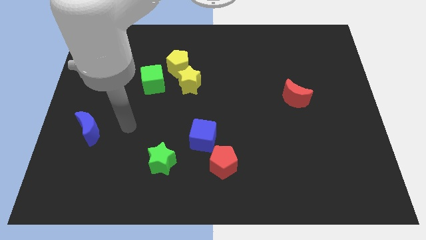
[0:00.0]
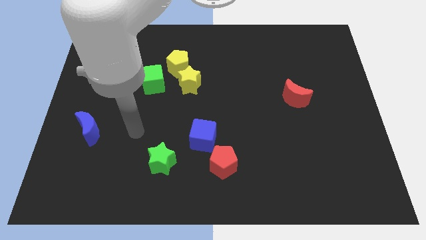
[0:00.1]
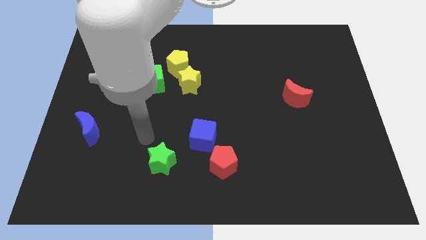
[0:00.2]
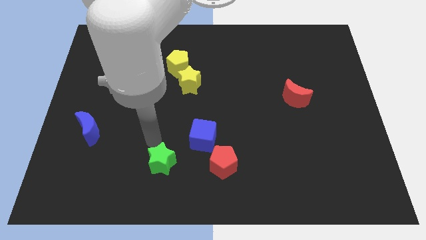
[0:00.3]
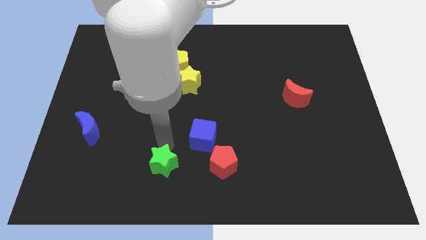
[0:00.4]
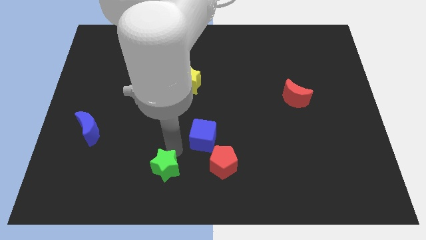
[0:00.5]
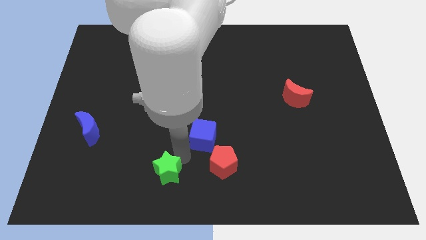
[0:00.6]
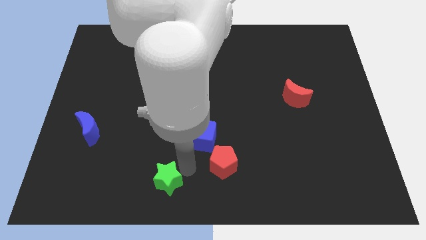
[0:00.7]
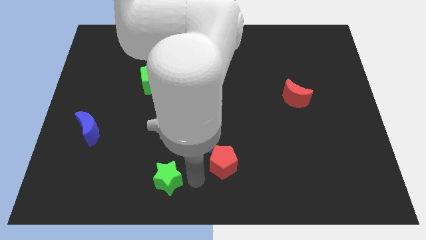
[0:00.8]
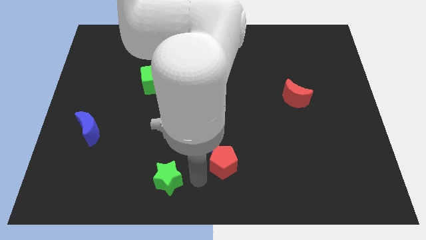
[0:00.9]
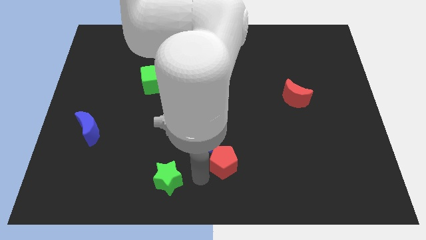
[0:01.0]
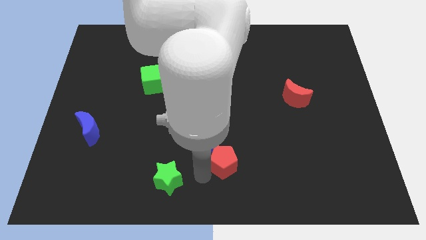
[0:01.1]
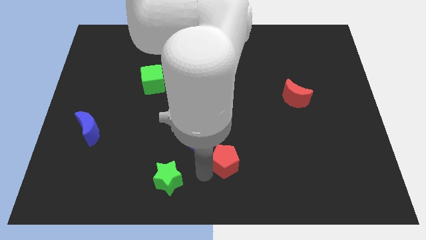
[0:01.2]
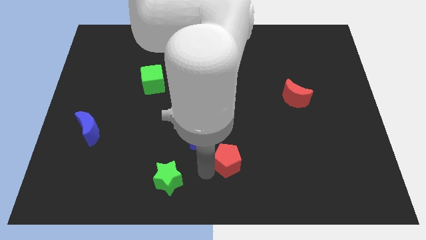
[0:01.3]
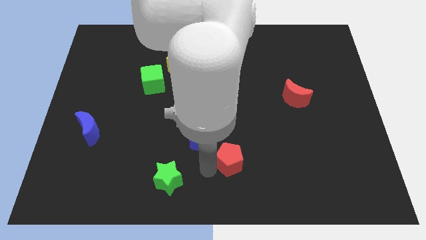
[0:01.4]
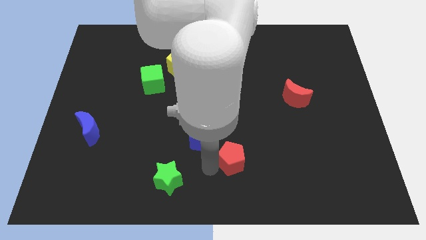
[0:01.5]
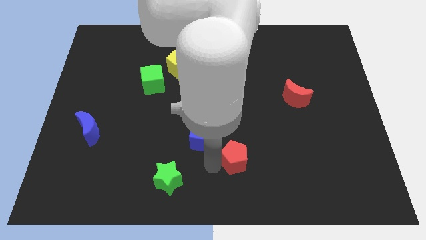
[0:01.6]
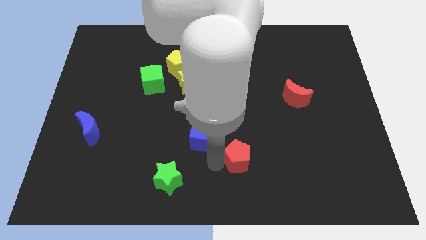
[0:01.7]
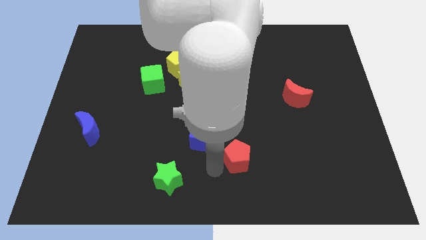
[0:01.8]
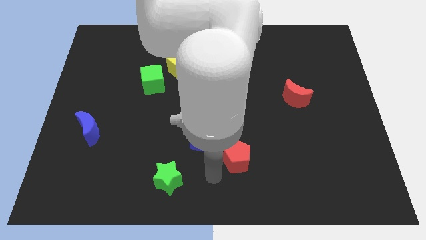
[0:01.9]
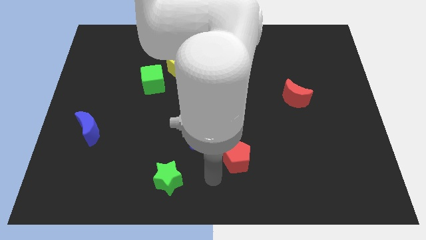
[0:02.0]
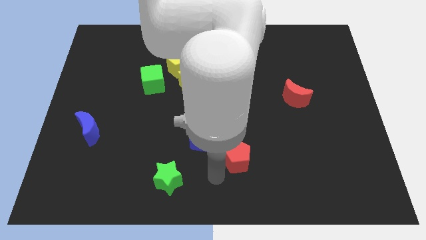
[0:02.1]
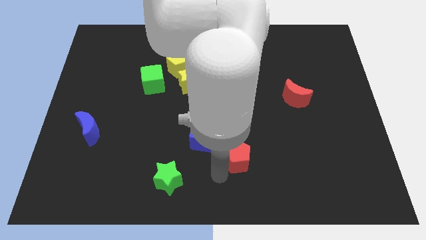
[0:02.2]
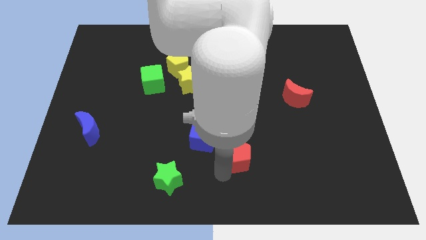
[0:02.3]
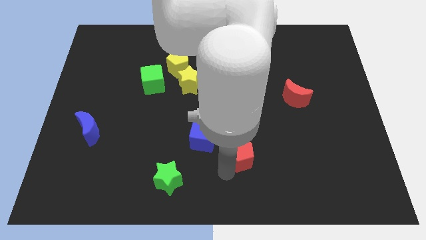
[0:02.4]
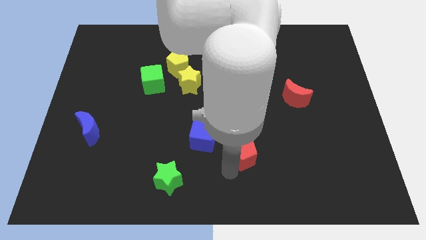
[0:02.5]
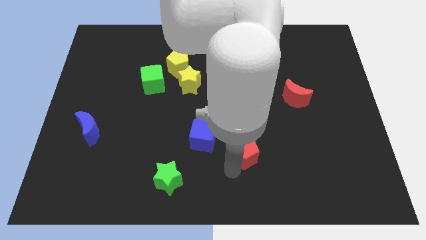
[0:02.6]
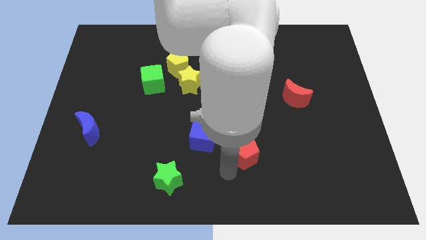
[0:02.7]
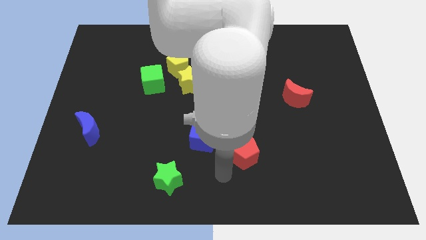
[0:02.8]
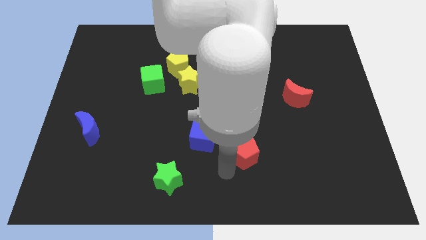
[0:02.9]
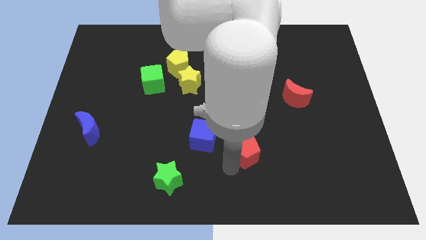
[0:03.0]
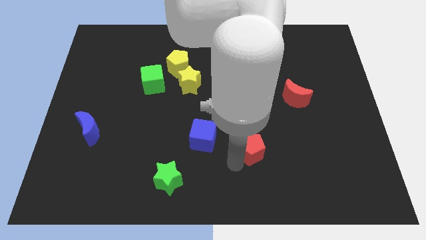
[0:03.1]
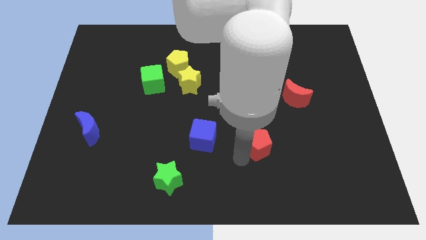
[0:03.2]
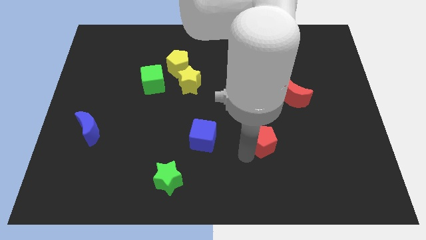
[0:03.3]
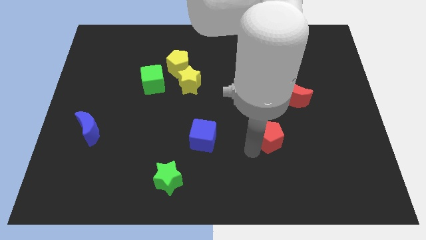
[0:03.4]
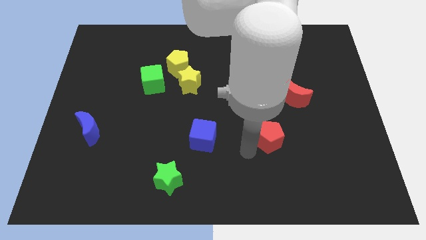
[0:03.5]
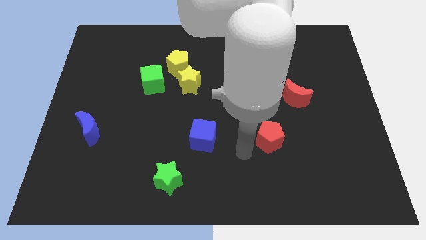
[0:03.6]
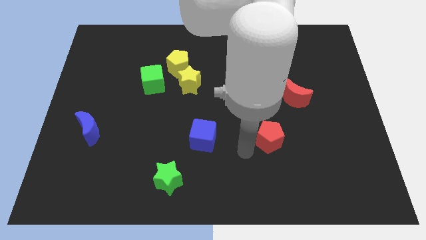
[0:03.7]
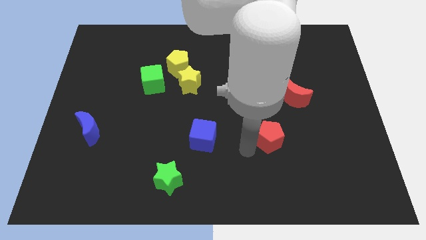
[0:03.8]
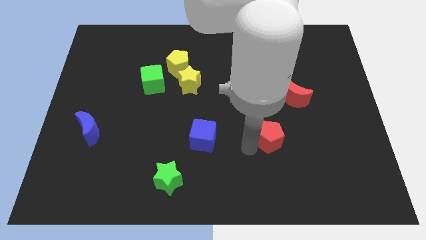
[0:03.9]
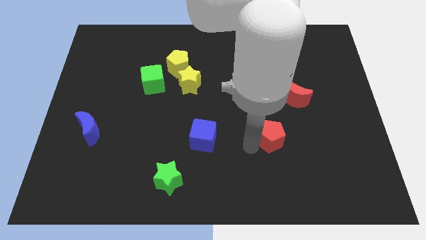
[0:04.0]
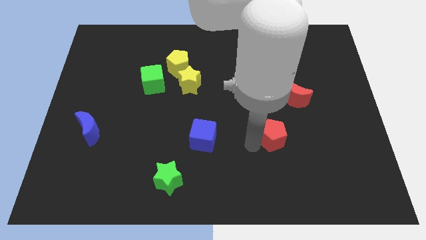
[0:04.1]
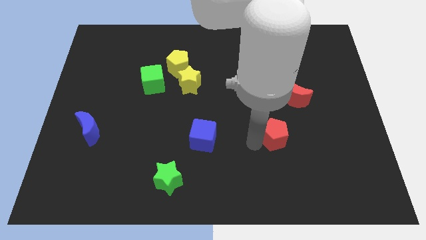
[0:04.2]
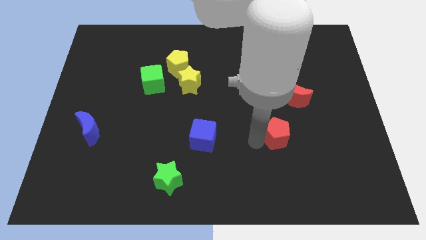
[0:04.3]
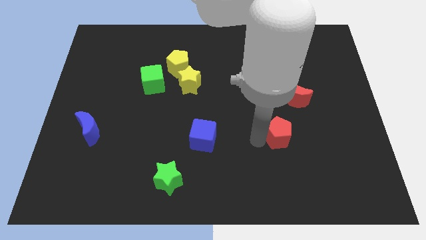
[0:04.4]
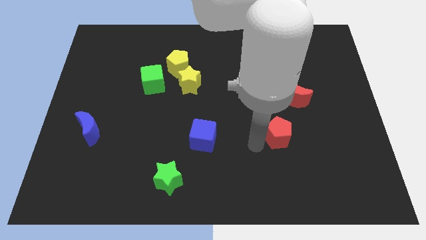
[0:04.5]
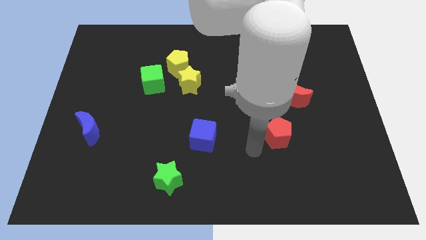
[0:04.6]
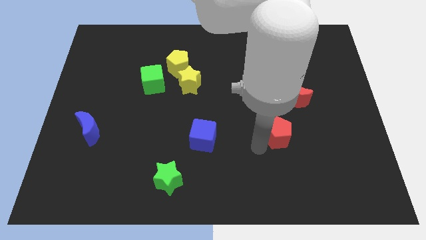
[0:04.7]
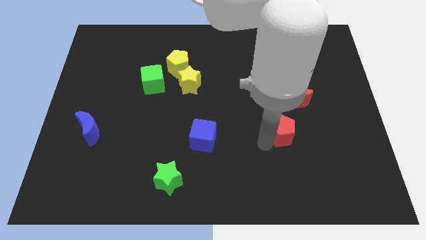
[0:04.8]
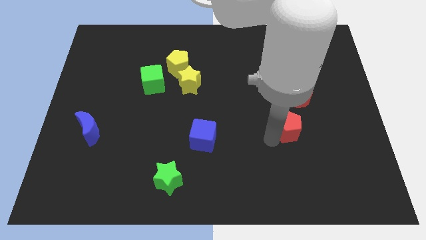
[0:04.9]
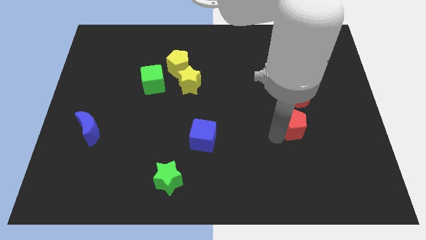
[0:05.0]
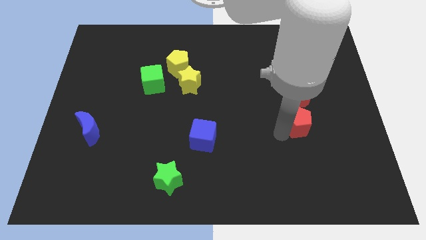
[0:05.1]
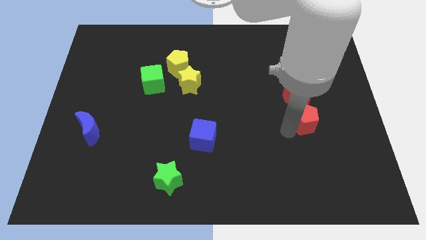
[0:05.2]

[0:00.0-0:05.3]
push the red pentagon up and to the right

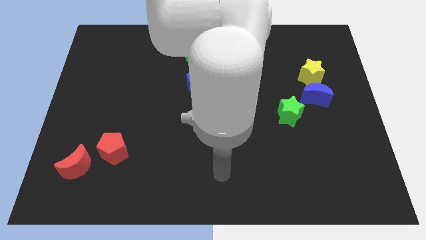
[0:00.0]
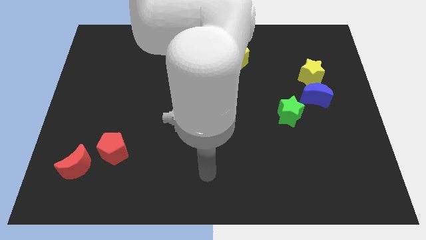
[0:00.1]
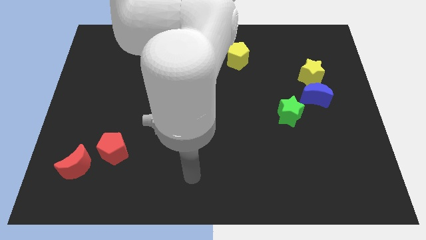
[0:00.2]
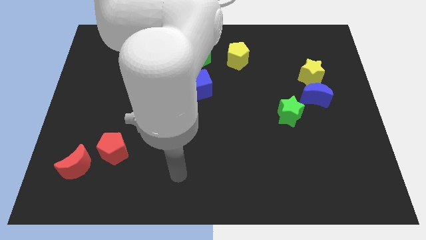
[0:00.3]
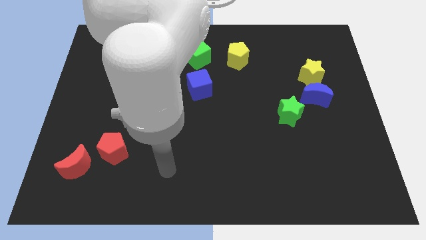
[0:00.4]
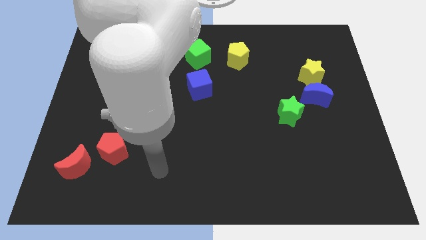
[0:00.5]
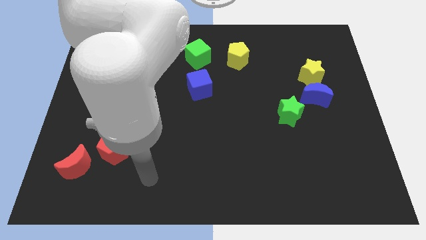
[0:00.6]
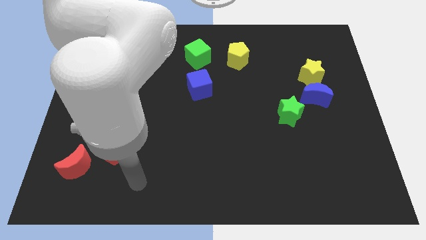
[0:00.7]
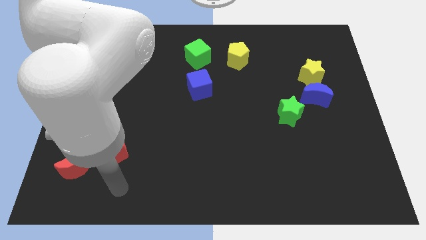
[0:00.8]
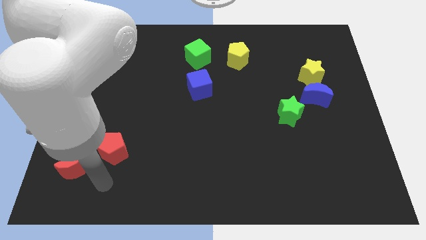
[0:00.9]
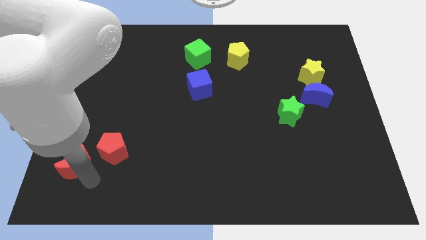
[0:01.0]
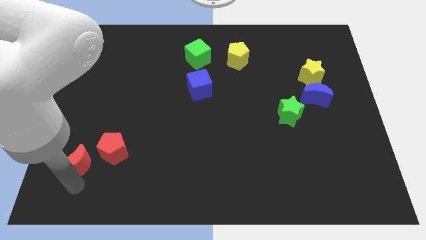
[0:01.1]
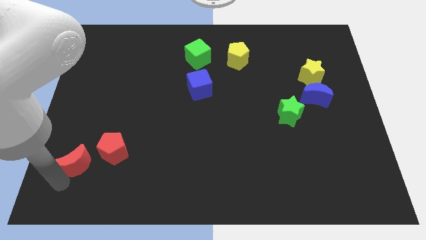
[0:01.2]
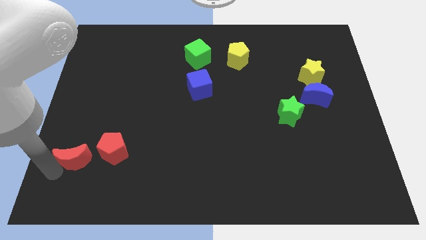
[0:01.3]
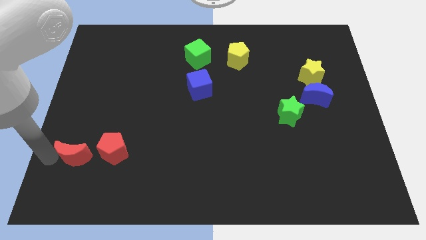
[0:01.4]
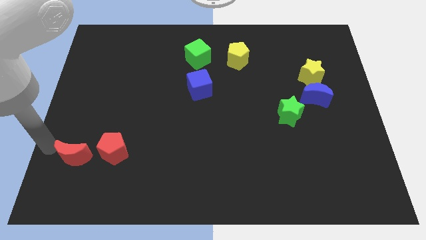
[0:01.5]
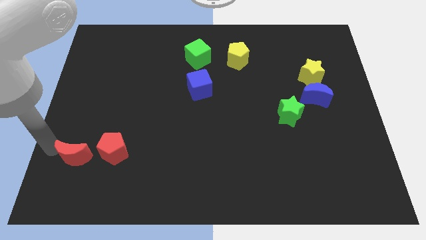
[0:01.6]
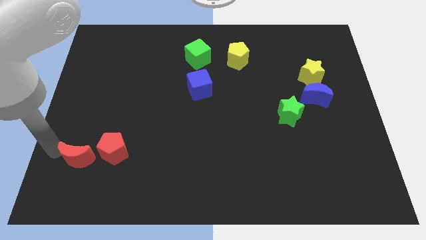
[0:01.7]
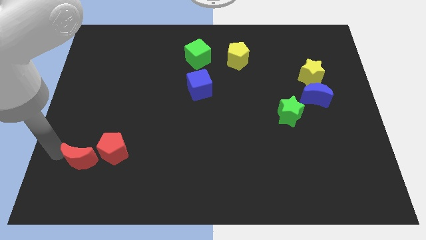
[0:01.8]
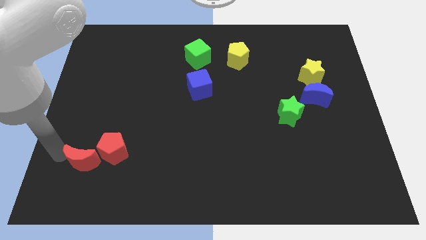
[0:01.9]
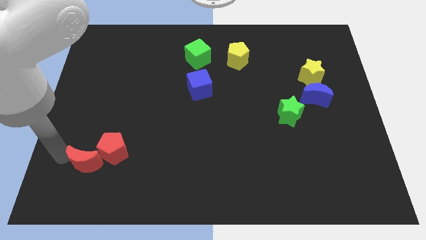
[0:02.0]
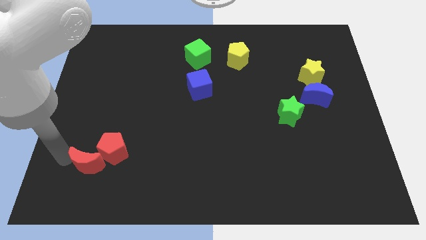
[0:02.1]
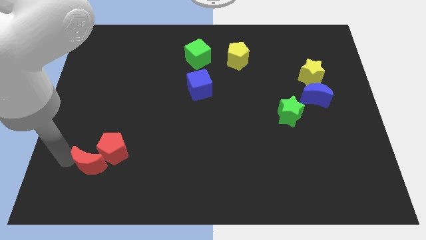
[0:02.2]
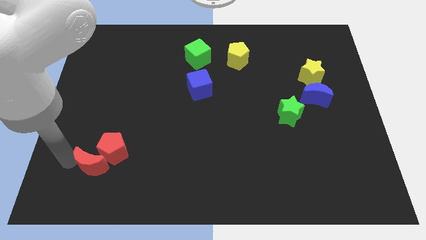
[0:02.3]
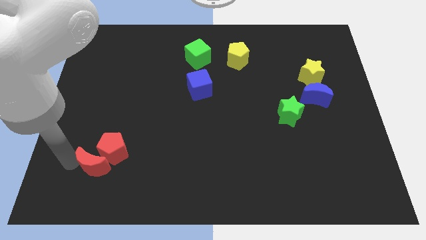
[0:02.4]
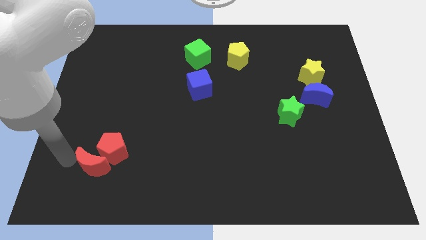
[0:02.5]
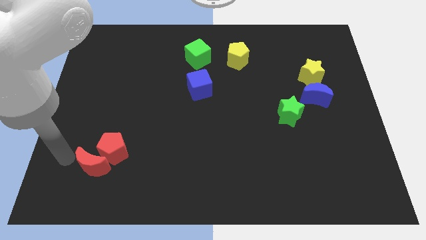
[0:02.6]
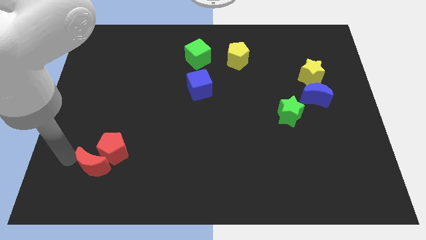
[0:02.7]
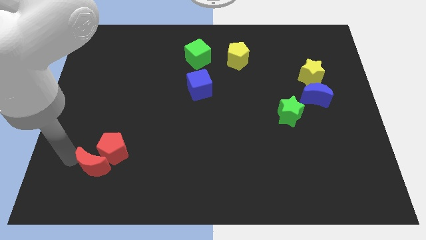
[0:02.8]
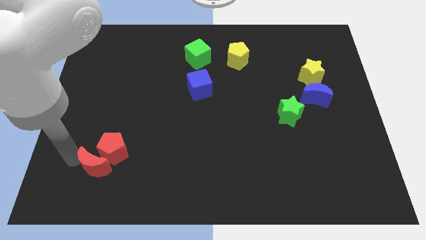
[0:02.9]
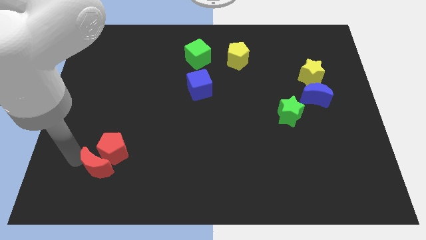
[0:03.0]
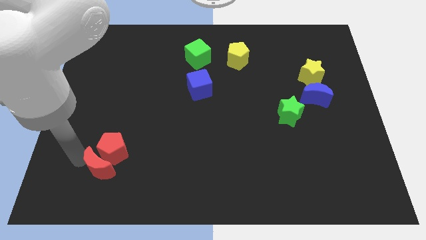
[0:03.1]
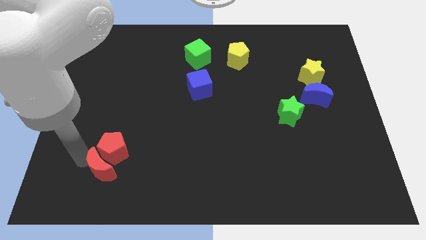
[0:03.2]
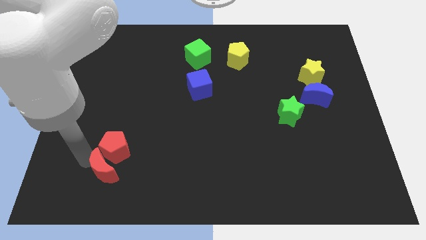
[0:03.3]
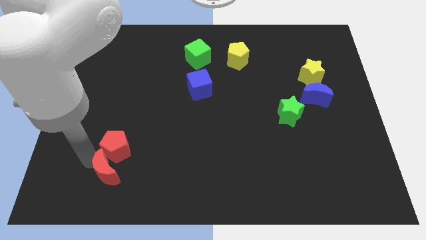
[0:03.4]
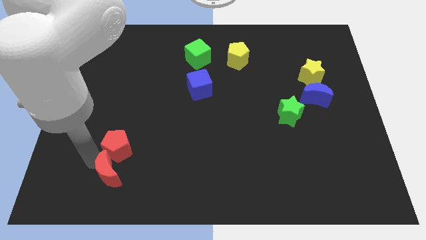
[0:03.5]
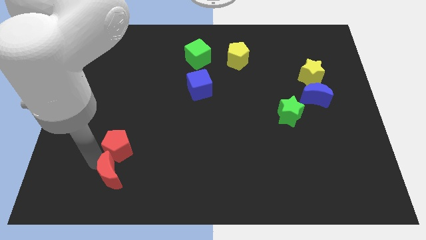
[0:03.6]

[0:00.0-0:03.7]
push the red moon somewhat right
